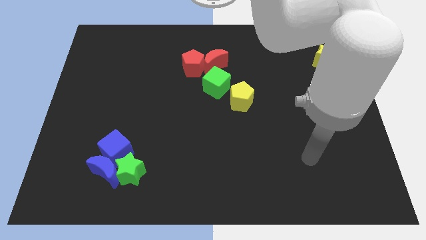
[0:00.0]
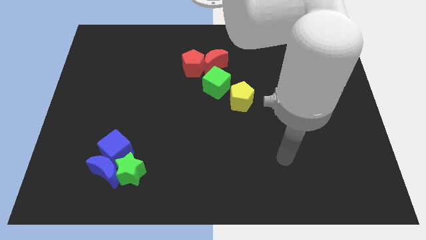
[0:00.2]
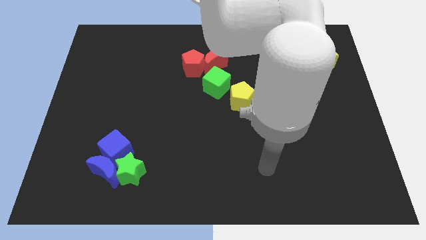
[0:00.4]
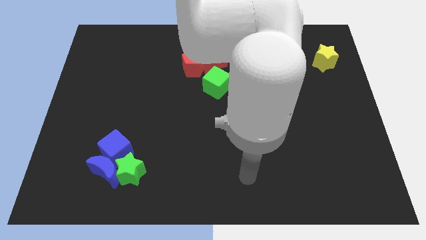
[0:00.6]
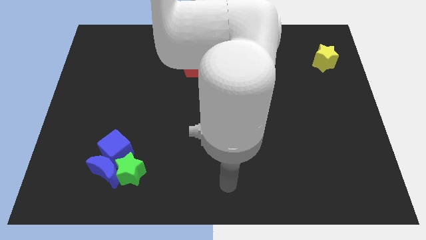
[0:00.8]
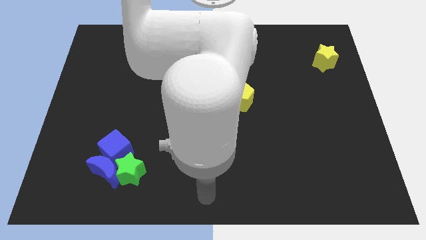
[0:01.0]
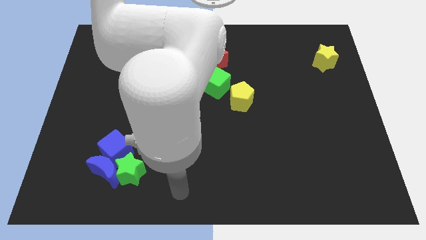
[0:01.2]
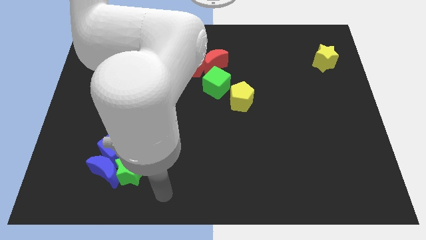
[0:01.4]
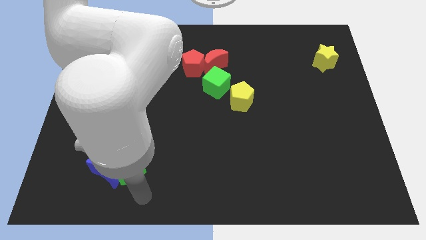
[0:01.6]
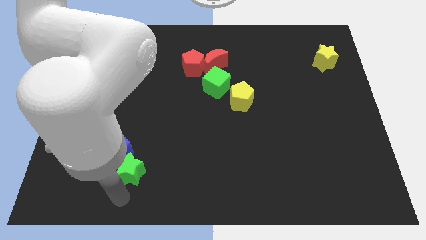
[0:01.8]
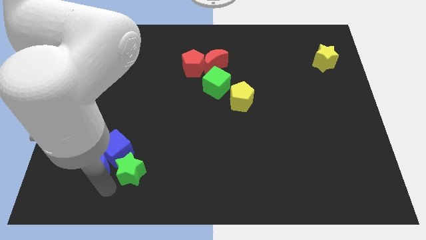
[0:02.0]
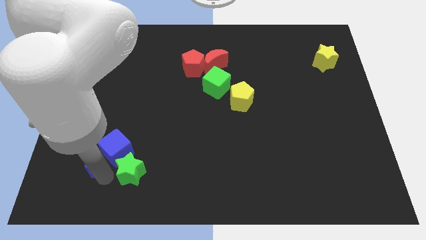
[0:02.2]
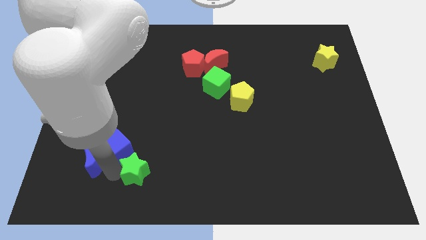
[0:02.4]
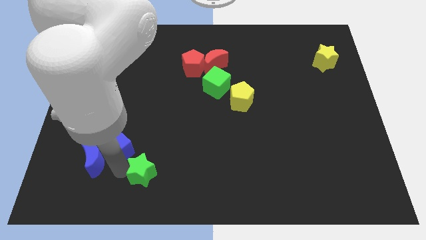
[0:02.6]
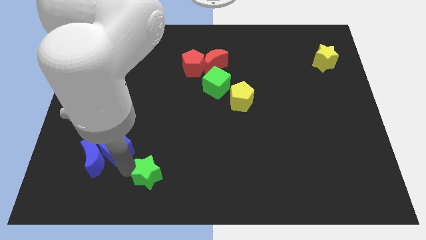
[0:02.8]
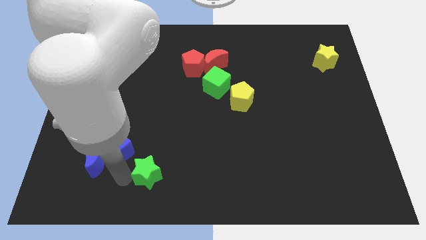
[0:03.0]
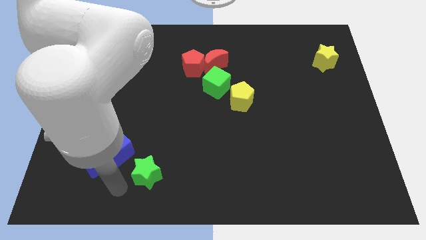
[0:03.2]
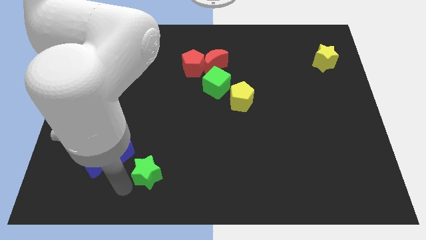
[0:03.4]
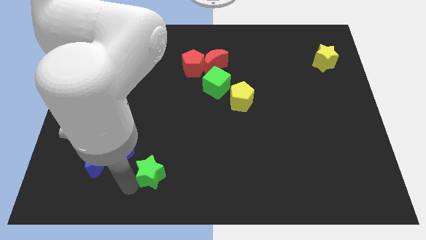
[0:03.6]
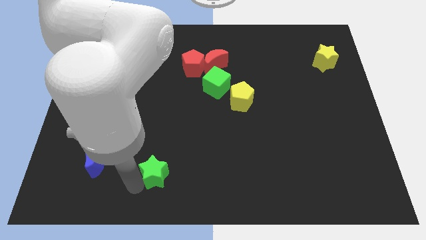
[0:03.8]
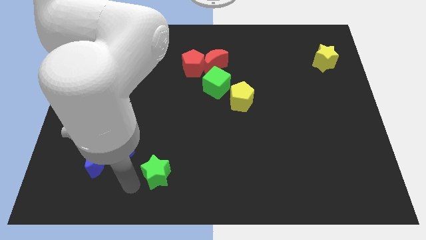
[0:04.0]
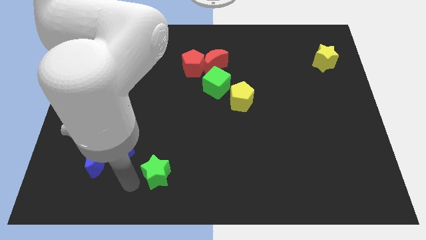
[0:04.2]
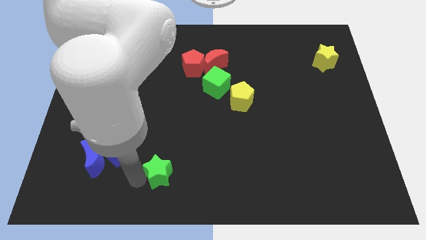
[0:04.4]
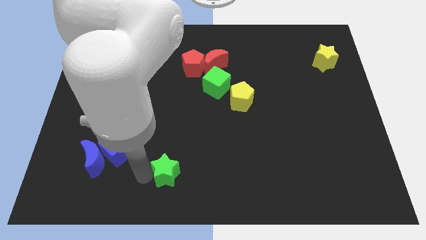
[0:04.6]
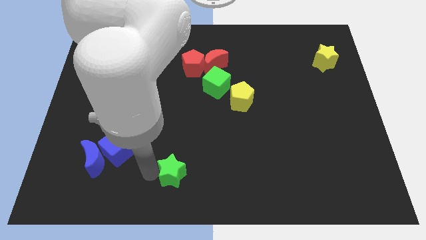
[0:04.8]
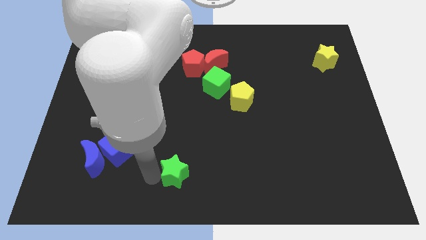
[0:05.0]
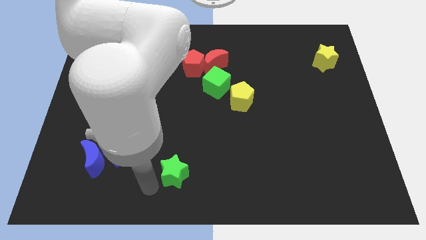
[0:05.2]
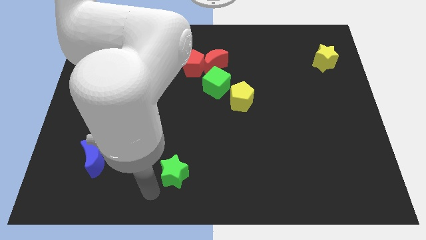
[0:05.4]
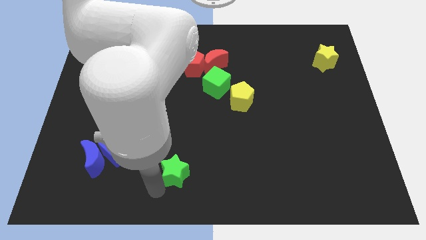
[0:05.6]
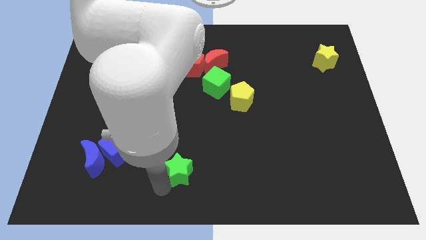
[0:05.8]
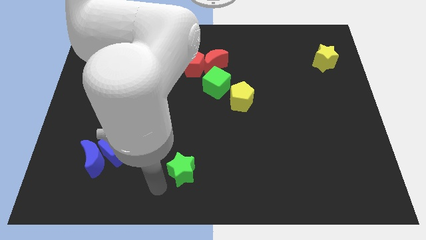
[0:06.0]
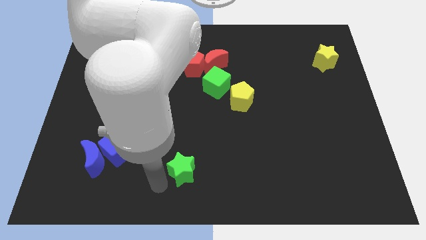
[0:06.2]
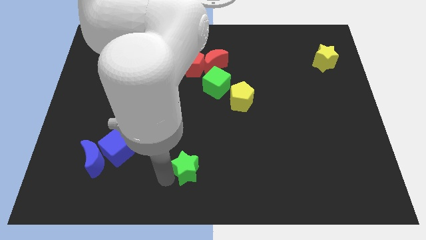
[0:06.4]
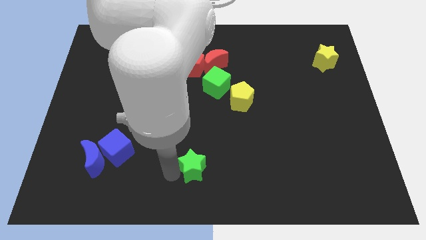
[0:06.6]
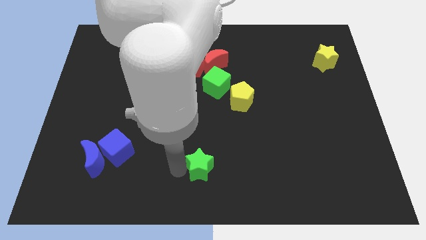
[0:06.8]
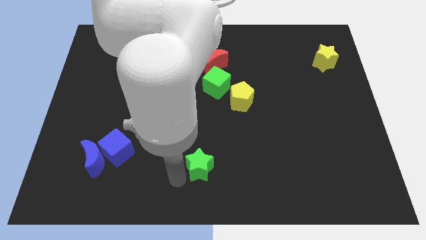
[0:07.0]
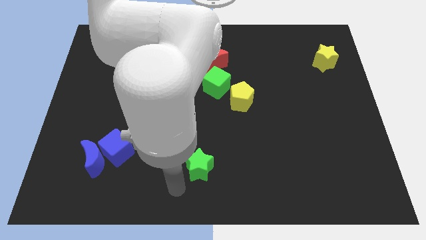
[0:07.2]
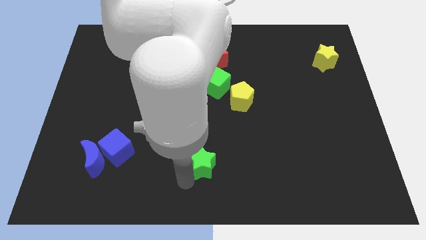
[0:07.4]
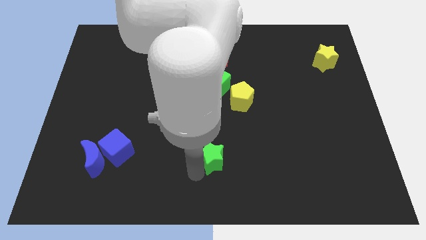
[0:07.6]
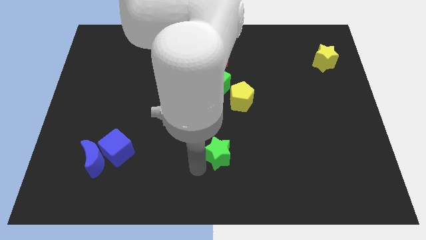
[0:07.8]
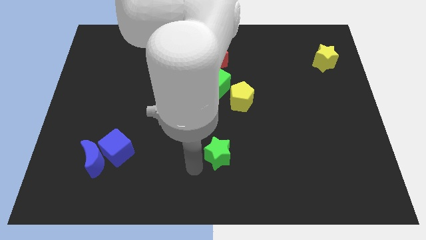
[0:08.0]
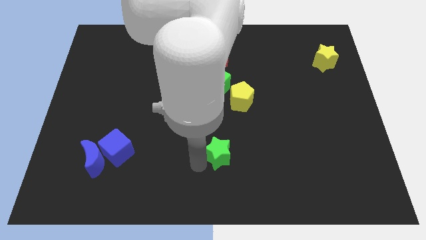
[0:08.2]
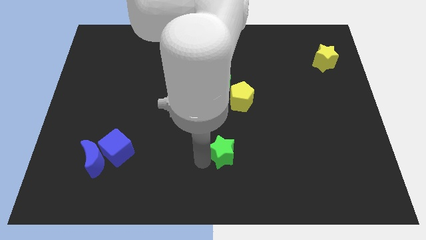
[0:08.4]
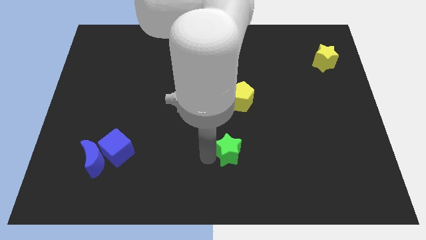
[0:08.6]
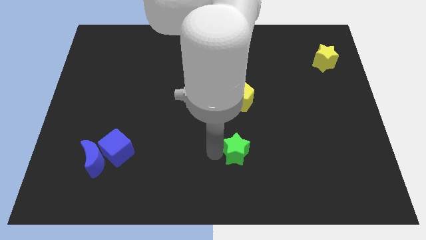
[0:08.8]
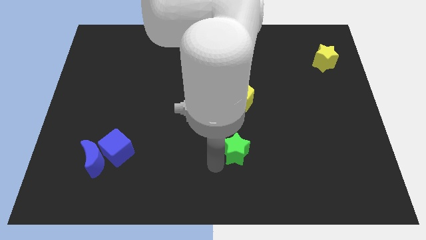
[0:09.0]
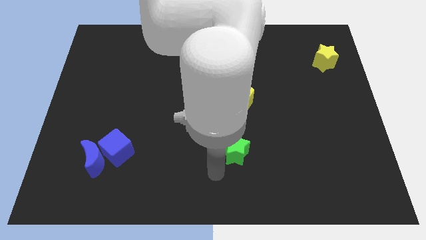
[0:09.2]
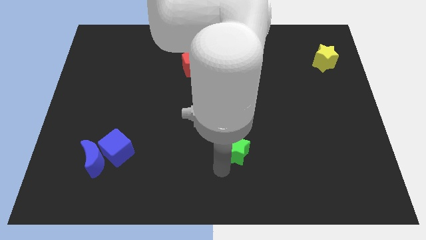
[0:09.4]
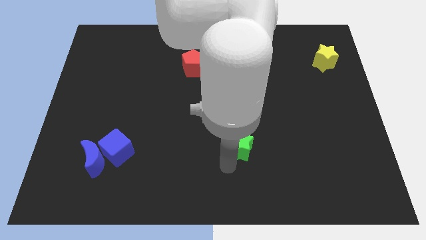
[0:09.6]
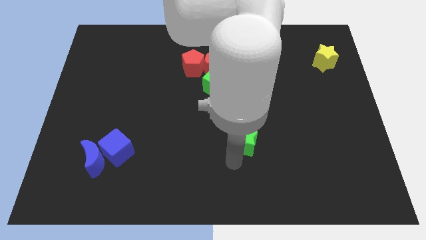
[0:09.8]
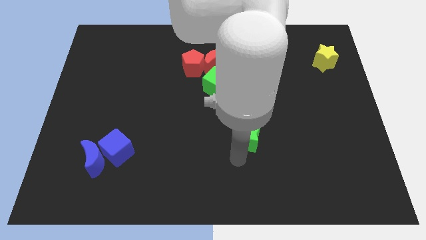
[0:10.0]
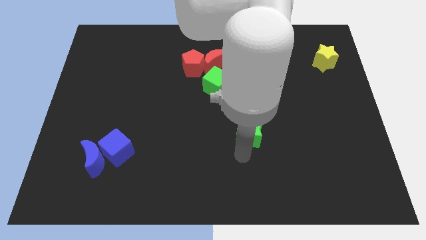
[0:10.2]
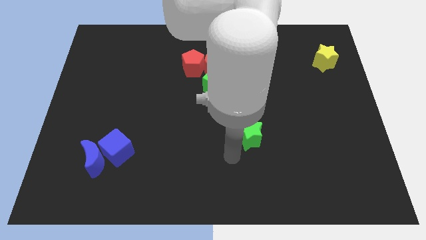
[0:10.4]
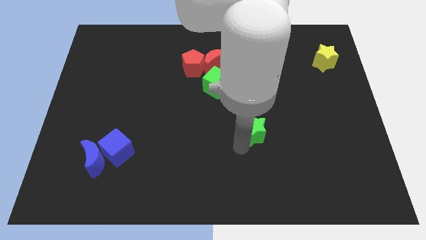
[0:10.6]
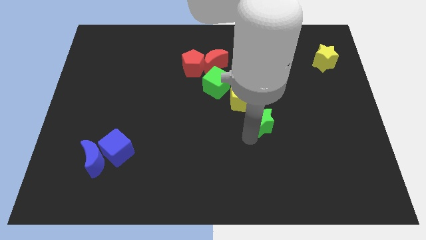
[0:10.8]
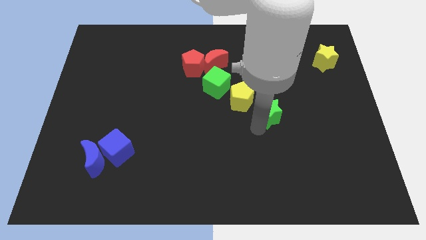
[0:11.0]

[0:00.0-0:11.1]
slide the green star just right of the yellow pentagon

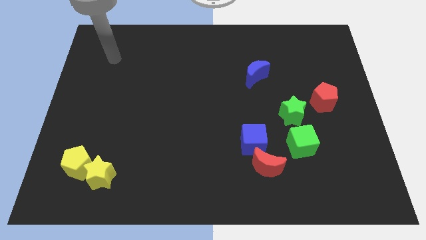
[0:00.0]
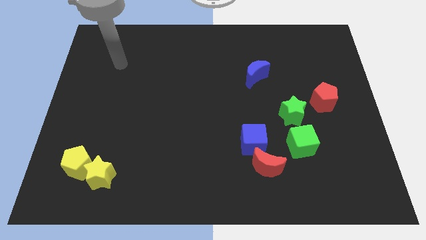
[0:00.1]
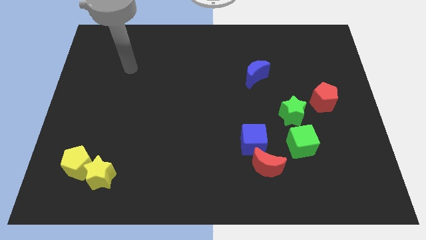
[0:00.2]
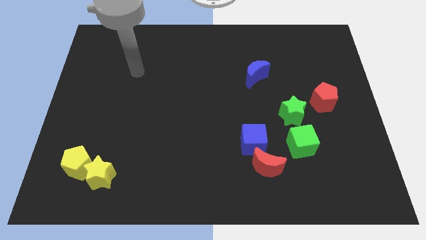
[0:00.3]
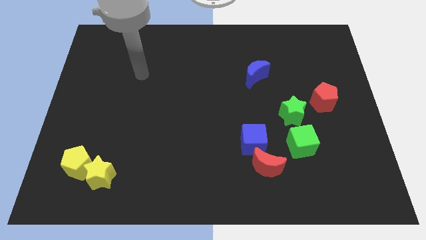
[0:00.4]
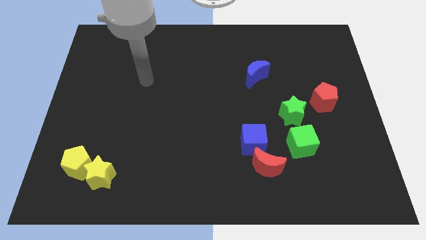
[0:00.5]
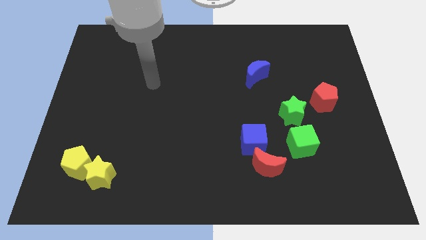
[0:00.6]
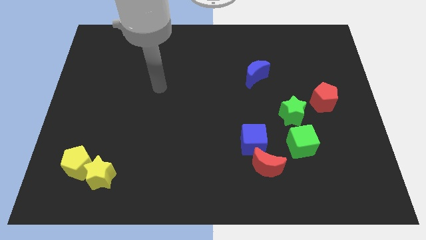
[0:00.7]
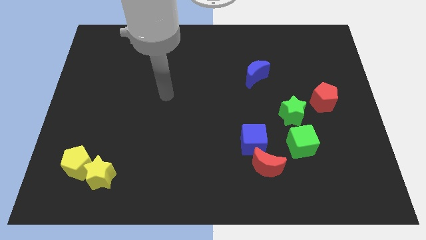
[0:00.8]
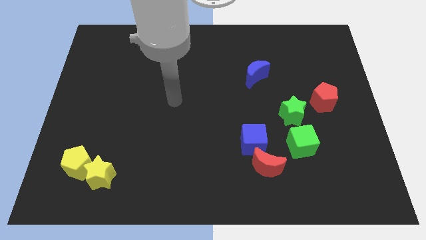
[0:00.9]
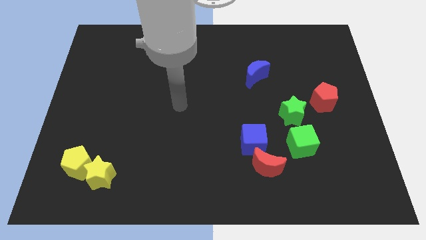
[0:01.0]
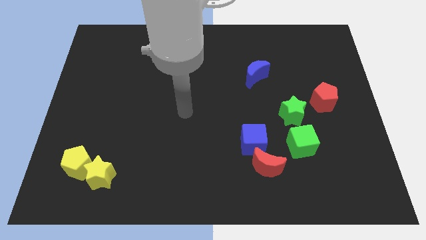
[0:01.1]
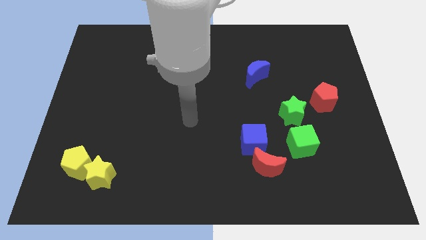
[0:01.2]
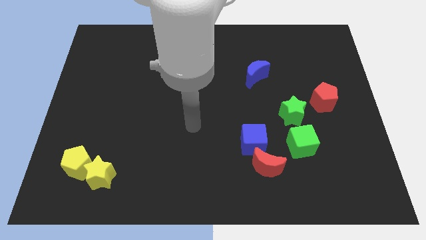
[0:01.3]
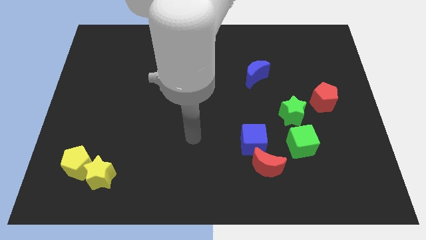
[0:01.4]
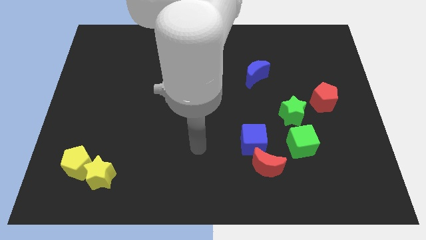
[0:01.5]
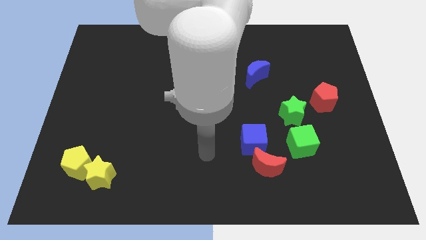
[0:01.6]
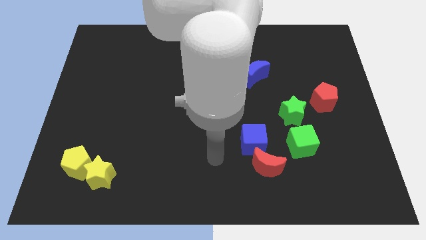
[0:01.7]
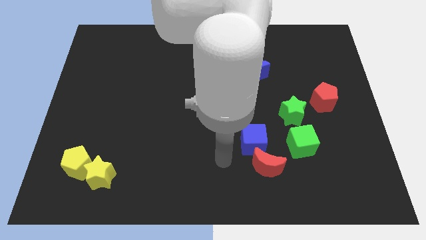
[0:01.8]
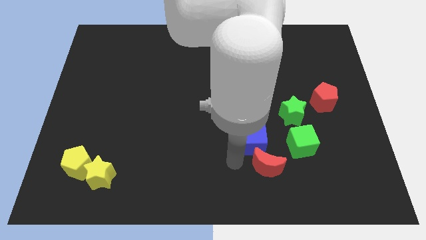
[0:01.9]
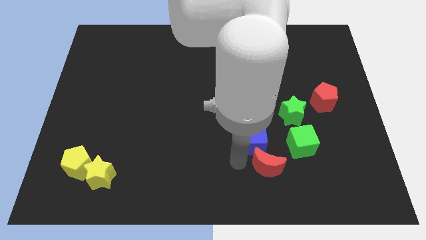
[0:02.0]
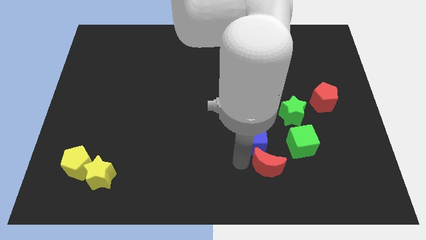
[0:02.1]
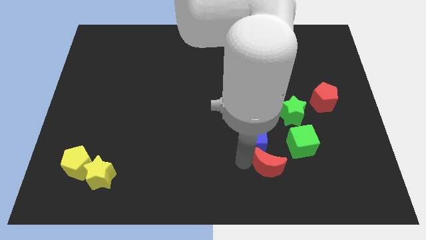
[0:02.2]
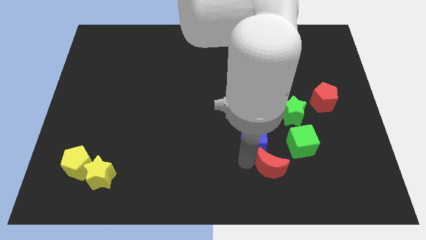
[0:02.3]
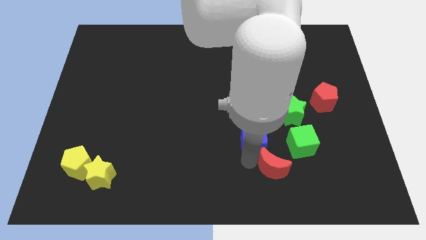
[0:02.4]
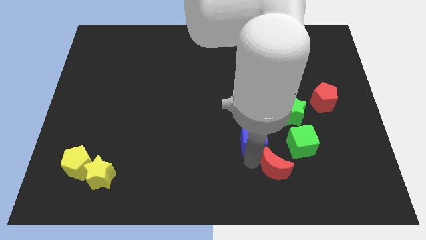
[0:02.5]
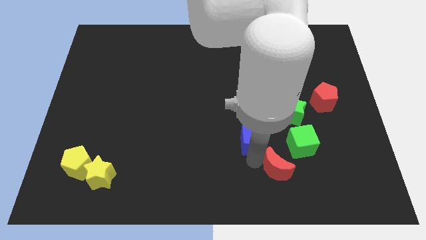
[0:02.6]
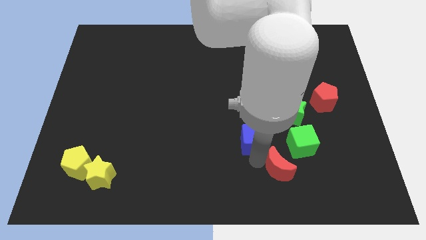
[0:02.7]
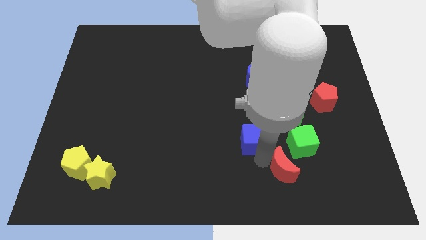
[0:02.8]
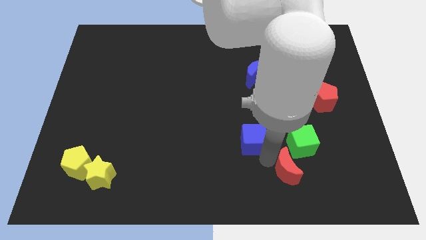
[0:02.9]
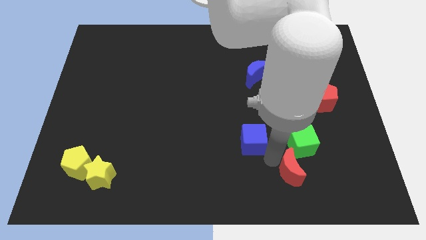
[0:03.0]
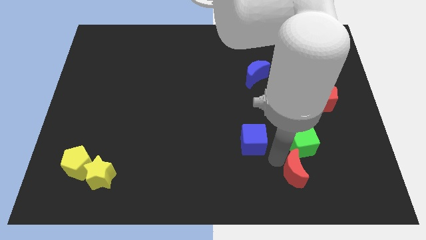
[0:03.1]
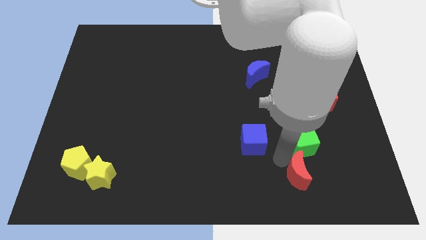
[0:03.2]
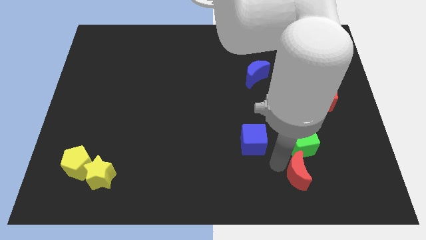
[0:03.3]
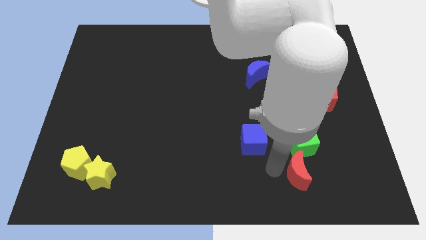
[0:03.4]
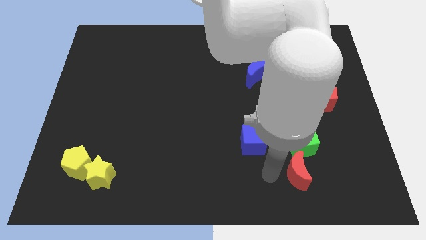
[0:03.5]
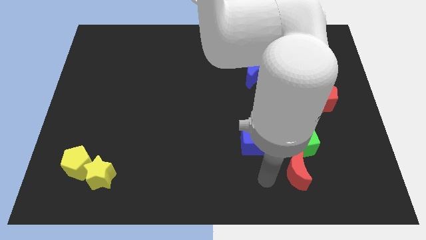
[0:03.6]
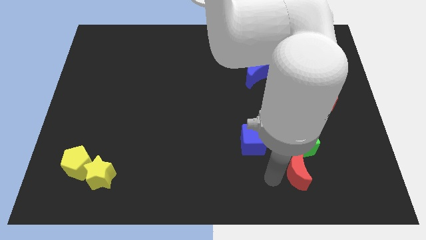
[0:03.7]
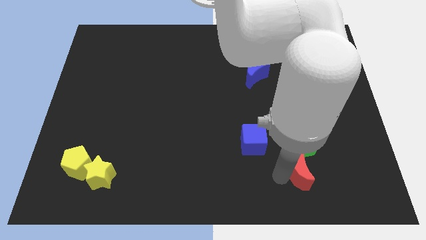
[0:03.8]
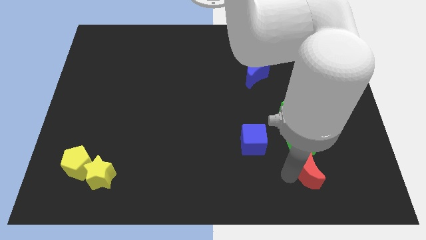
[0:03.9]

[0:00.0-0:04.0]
move the red moon diagonally down and to the right of the green cube
